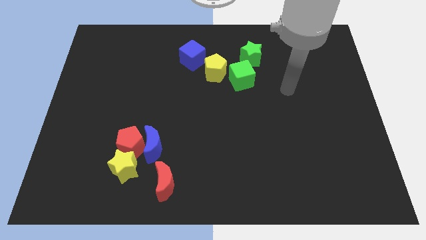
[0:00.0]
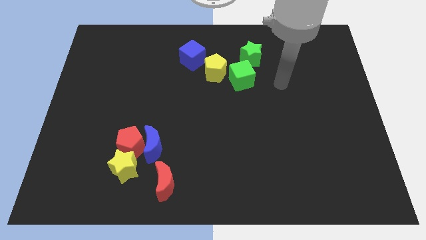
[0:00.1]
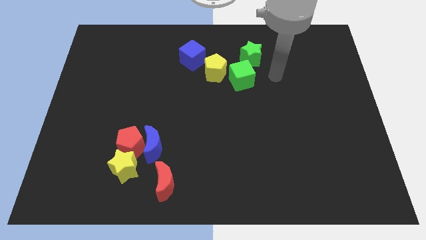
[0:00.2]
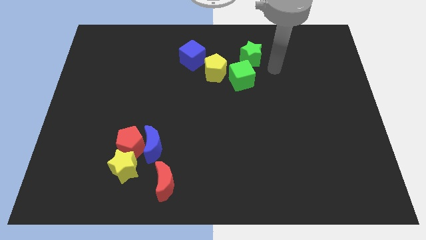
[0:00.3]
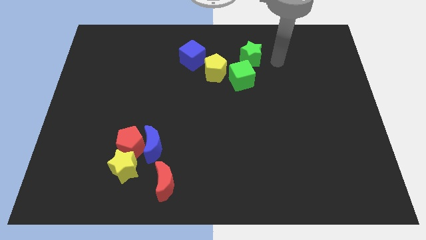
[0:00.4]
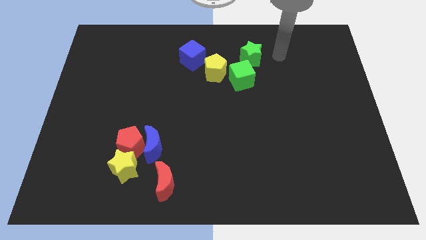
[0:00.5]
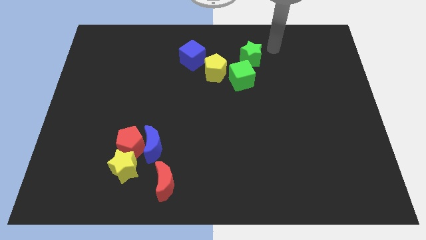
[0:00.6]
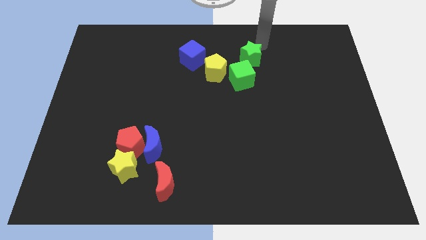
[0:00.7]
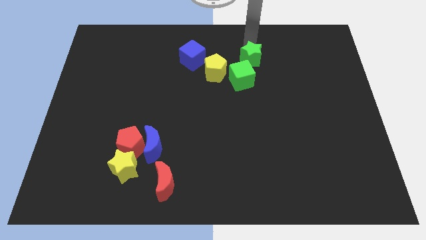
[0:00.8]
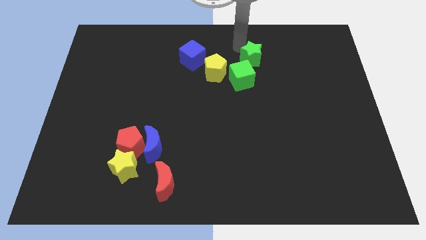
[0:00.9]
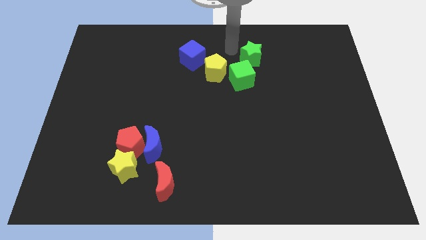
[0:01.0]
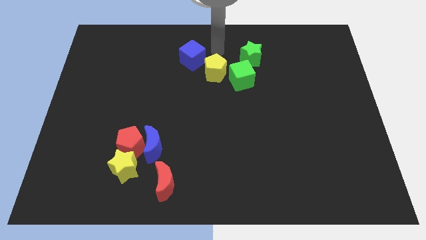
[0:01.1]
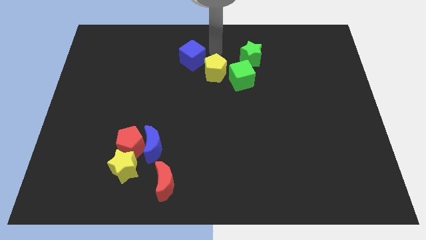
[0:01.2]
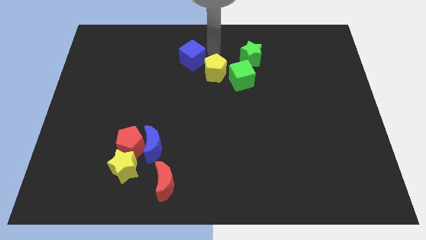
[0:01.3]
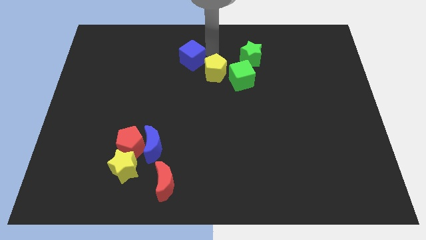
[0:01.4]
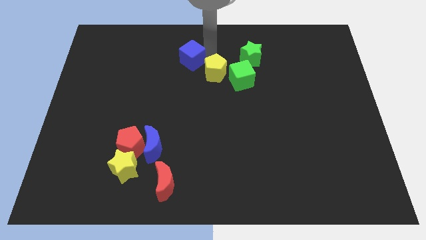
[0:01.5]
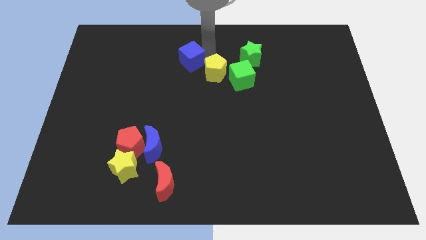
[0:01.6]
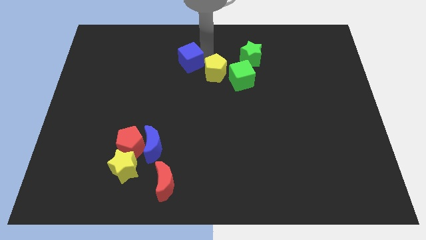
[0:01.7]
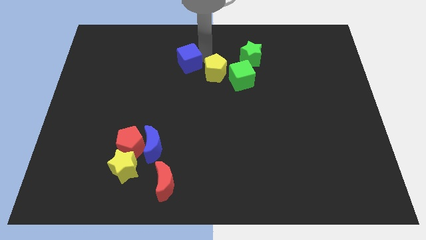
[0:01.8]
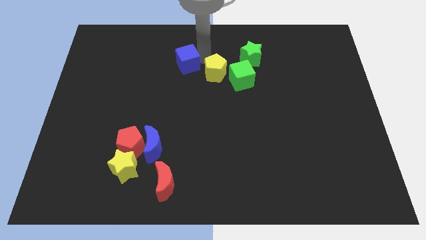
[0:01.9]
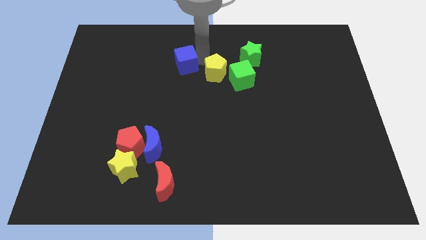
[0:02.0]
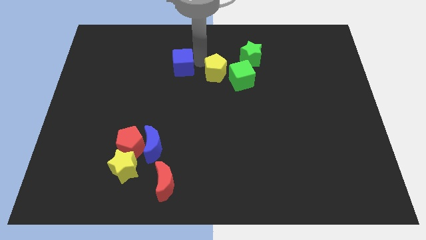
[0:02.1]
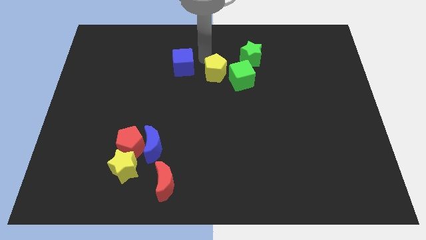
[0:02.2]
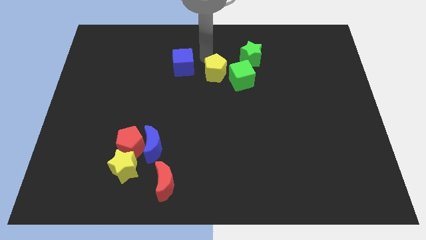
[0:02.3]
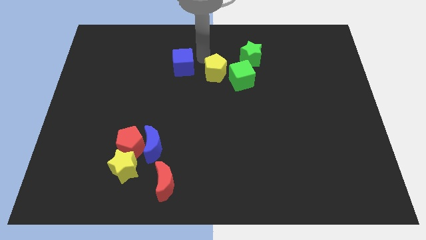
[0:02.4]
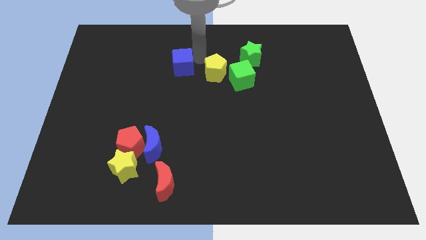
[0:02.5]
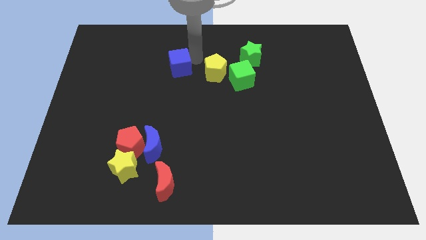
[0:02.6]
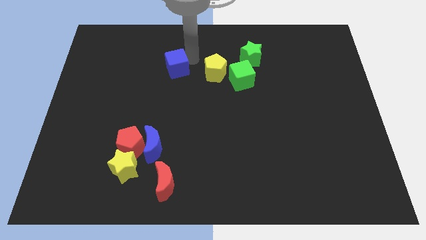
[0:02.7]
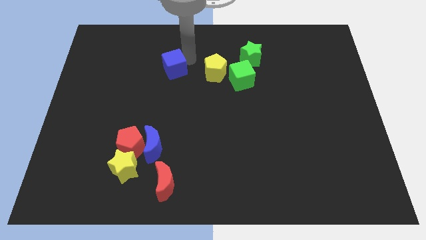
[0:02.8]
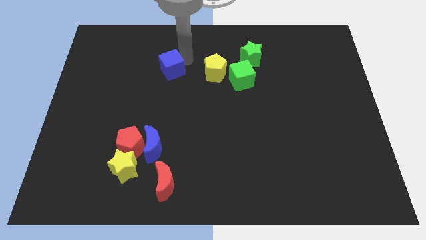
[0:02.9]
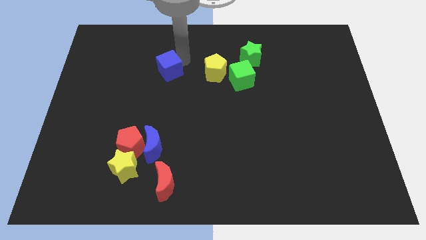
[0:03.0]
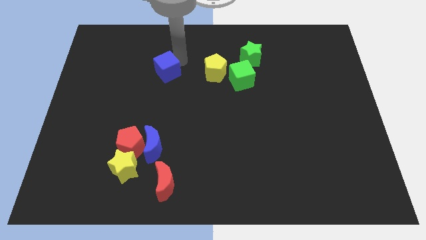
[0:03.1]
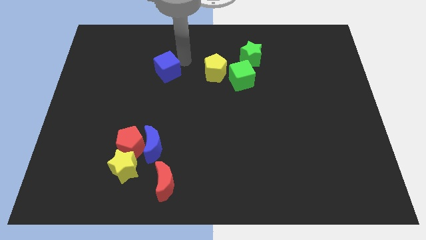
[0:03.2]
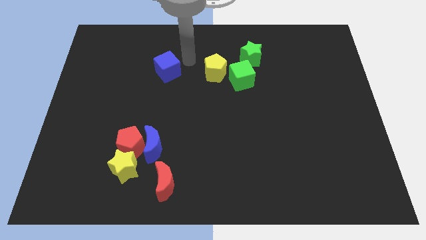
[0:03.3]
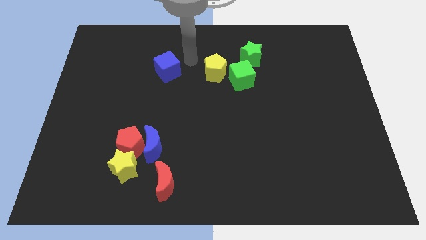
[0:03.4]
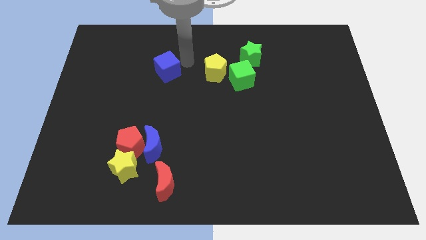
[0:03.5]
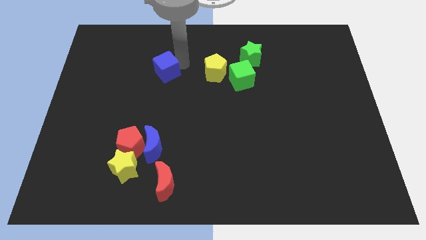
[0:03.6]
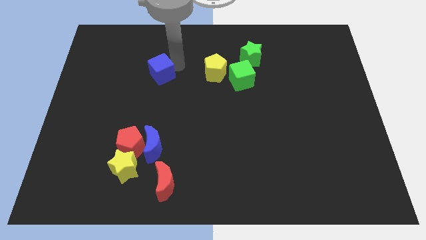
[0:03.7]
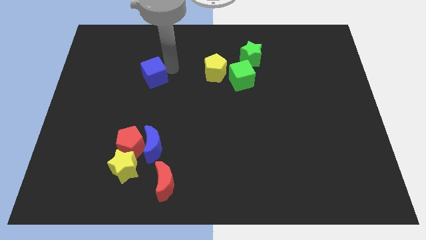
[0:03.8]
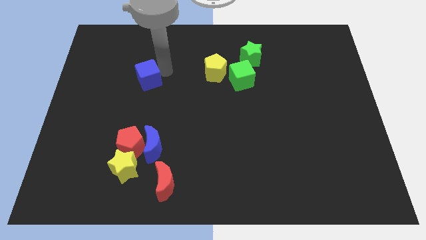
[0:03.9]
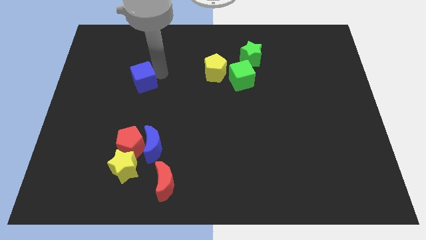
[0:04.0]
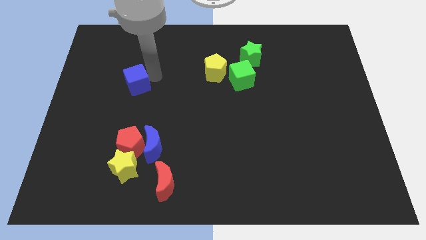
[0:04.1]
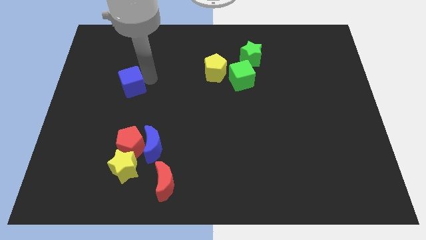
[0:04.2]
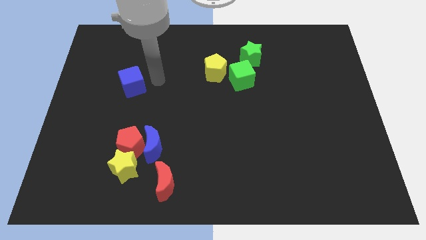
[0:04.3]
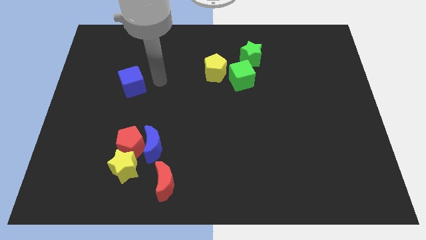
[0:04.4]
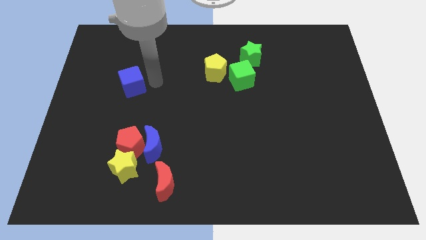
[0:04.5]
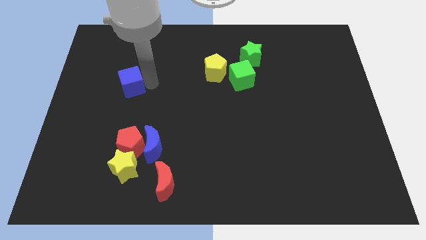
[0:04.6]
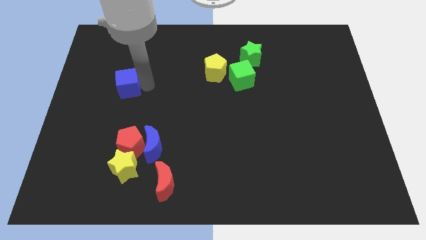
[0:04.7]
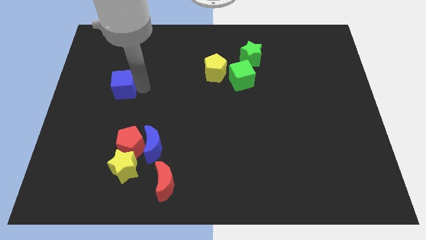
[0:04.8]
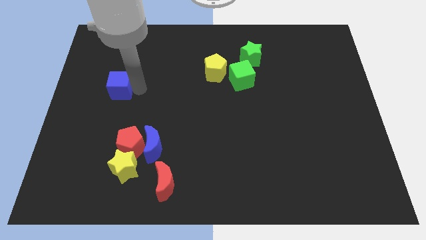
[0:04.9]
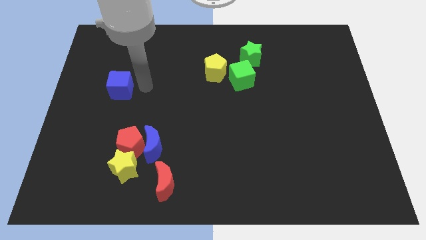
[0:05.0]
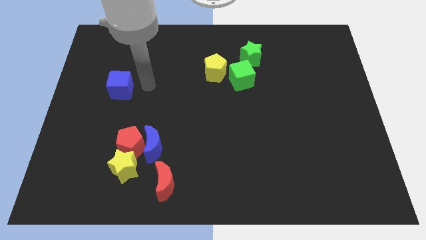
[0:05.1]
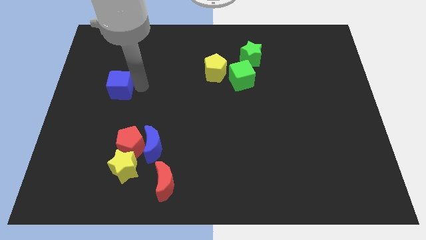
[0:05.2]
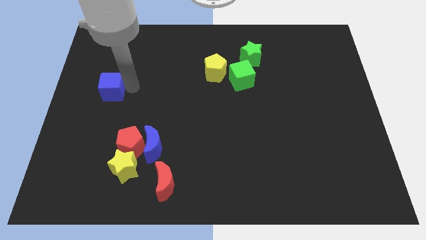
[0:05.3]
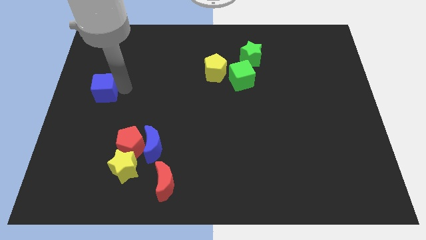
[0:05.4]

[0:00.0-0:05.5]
put the blue cube to the left side of the board

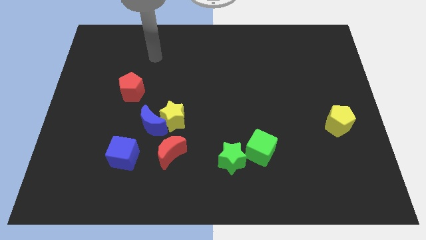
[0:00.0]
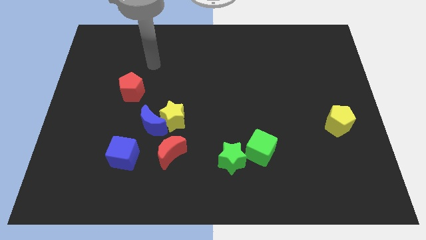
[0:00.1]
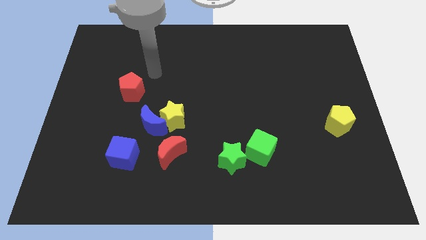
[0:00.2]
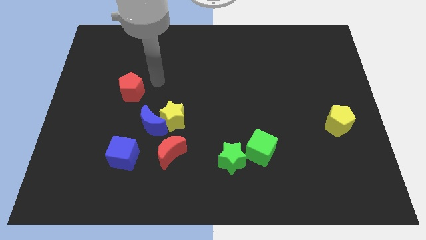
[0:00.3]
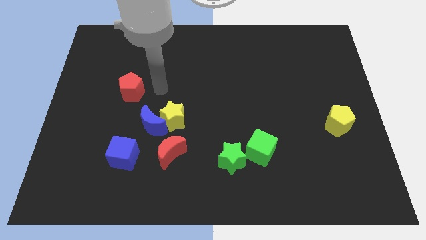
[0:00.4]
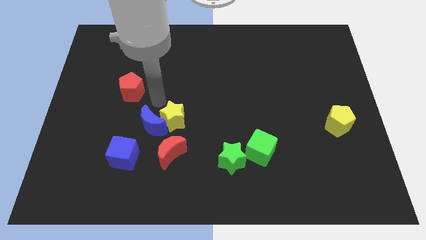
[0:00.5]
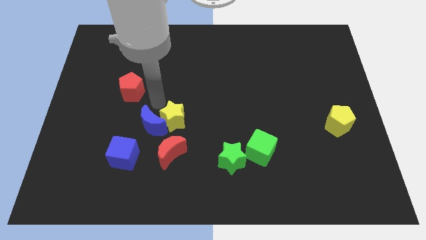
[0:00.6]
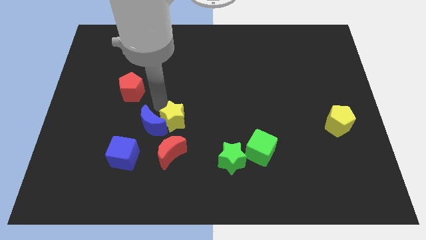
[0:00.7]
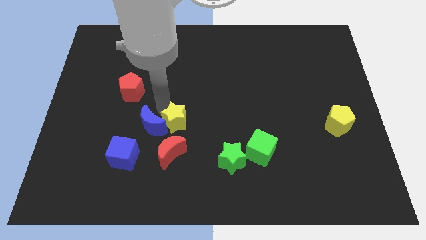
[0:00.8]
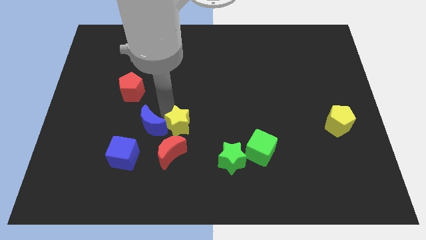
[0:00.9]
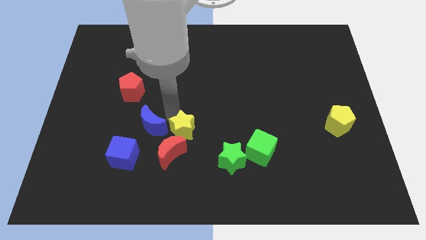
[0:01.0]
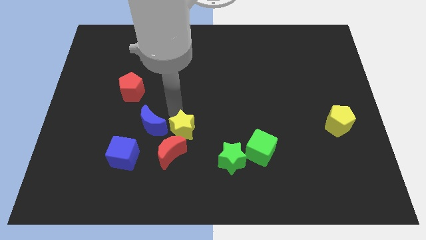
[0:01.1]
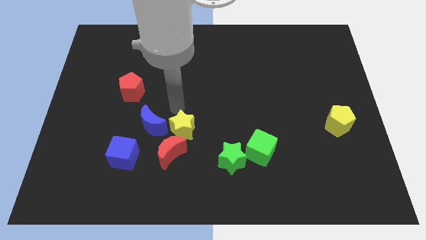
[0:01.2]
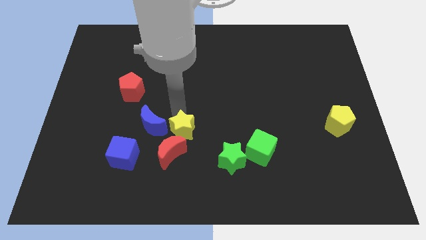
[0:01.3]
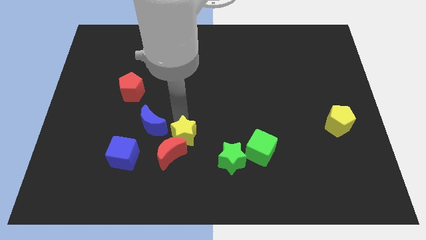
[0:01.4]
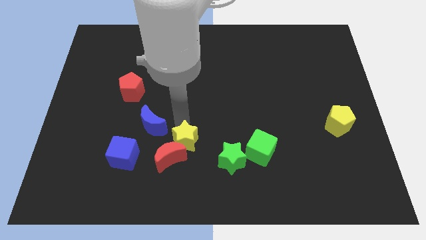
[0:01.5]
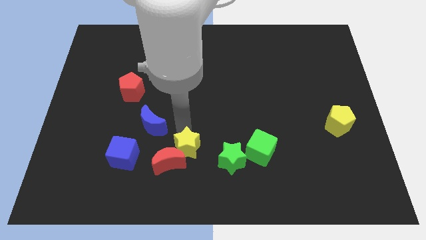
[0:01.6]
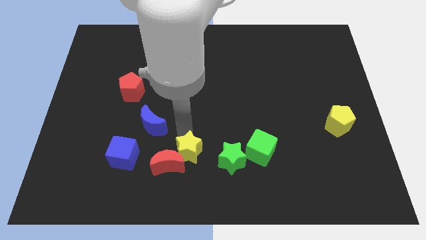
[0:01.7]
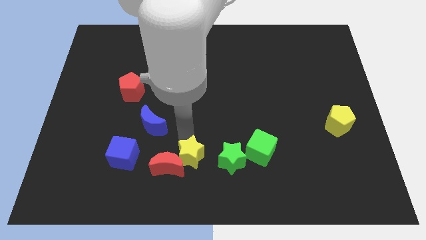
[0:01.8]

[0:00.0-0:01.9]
move the yellow star to the bottom side

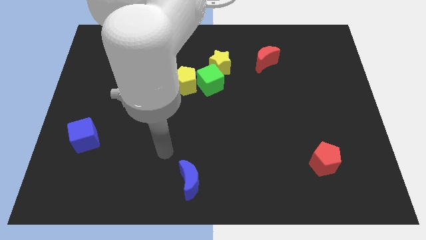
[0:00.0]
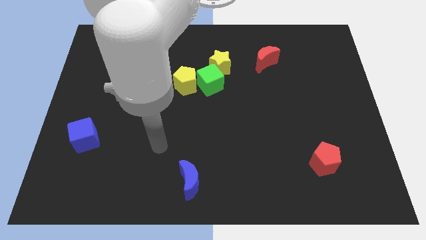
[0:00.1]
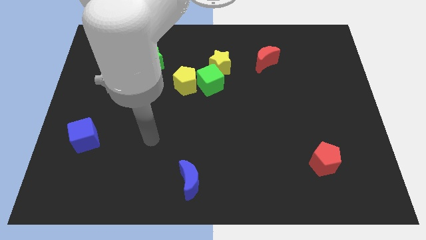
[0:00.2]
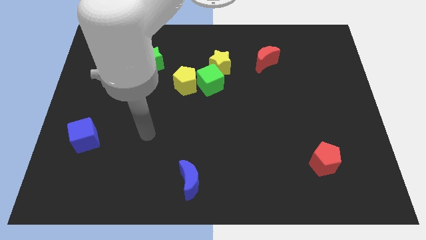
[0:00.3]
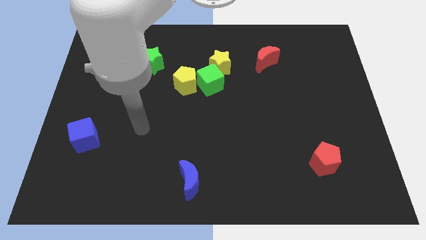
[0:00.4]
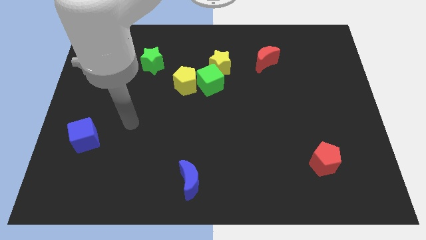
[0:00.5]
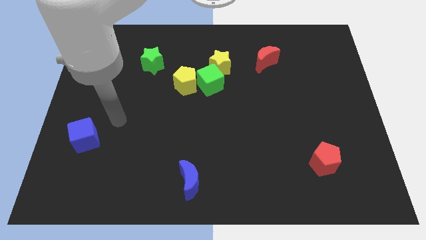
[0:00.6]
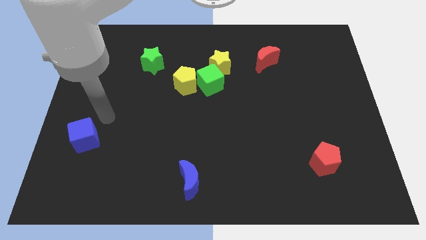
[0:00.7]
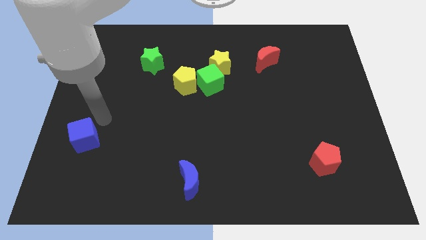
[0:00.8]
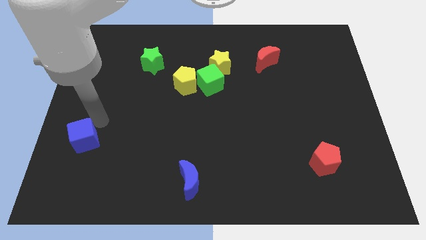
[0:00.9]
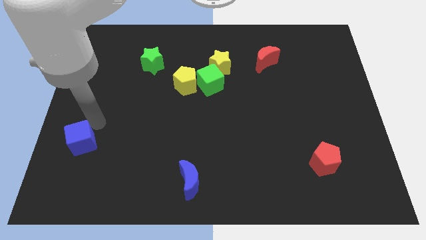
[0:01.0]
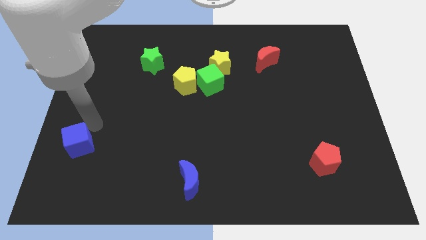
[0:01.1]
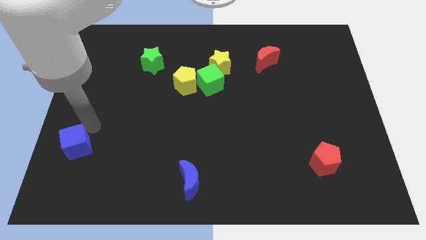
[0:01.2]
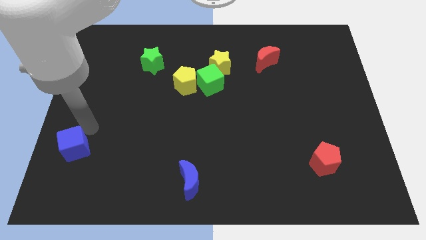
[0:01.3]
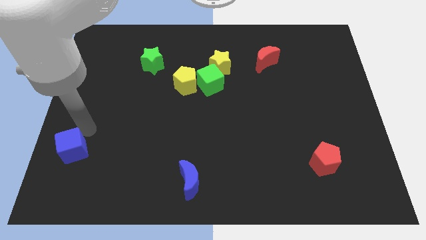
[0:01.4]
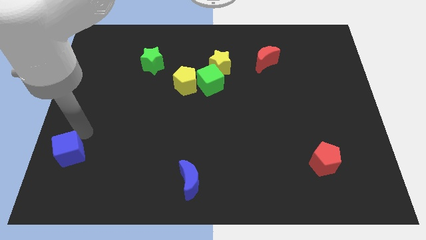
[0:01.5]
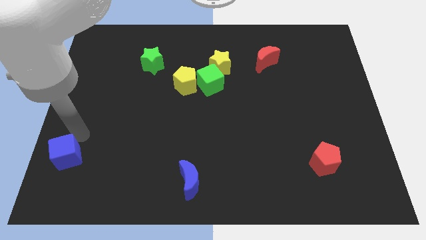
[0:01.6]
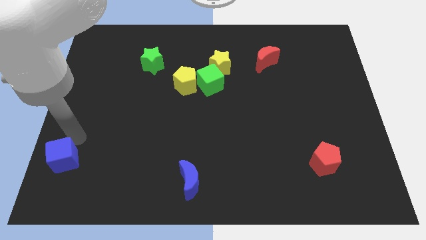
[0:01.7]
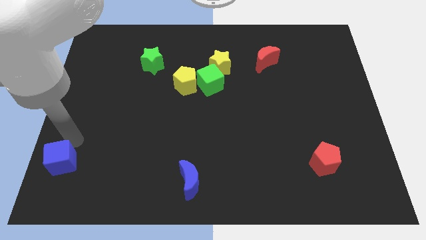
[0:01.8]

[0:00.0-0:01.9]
slide the blue cube to the bottom left corner
